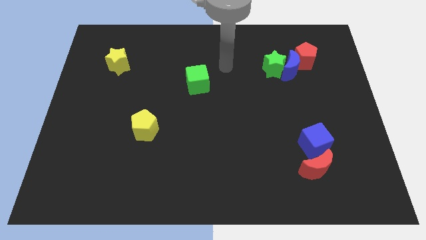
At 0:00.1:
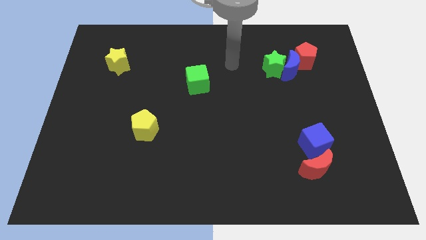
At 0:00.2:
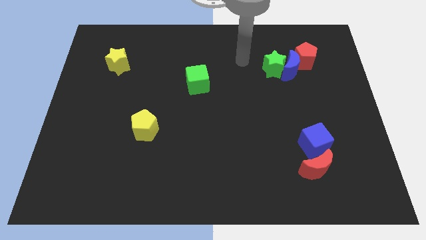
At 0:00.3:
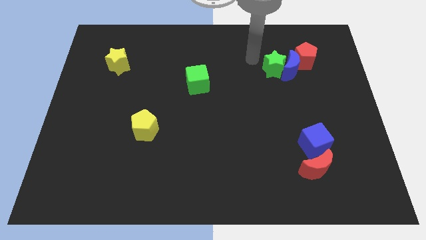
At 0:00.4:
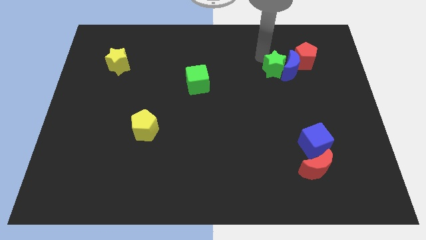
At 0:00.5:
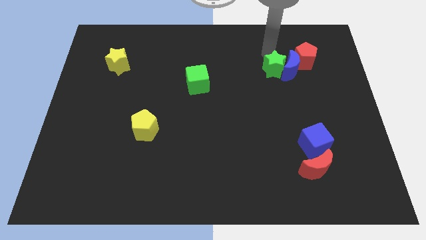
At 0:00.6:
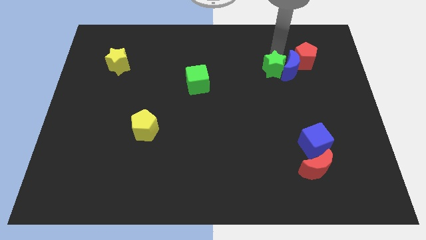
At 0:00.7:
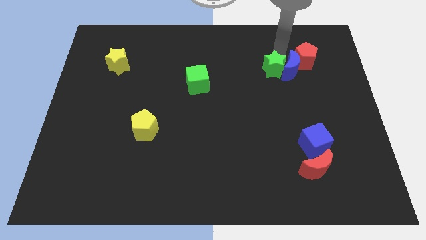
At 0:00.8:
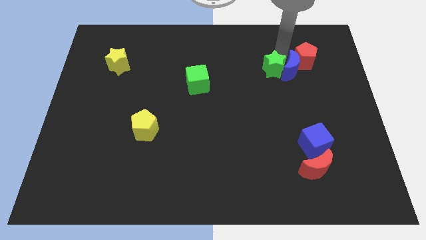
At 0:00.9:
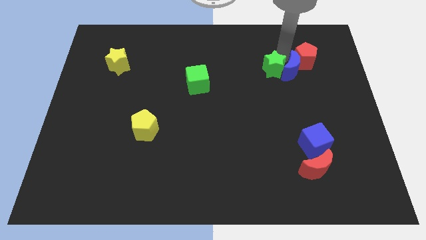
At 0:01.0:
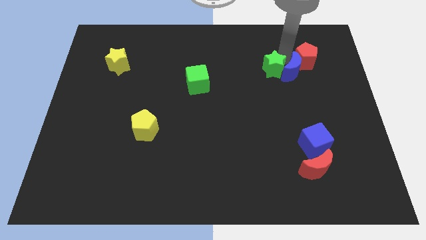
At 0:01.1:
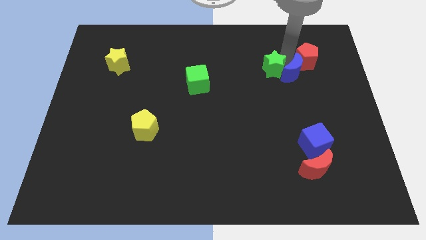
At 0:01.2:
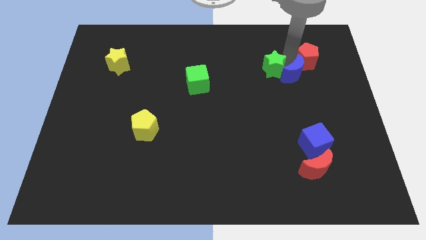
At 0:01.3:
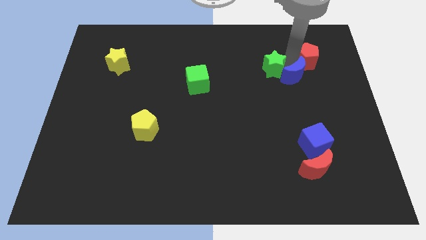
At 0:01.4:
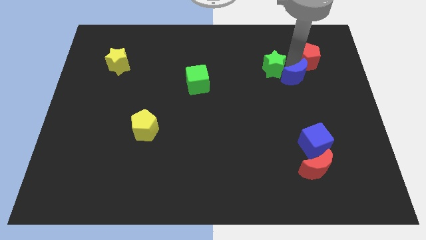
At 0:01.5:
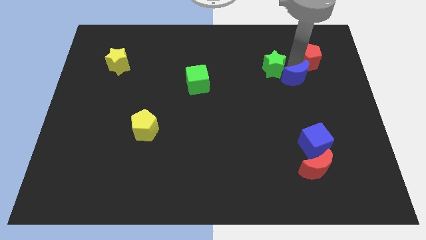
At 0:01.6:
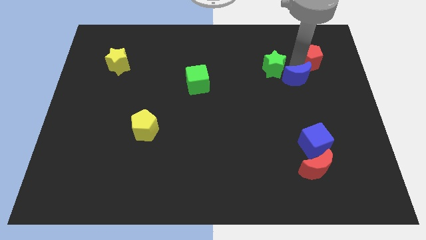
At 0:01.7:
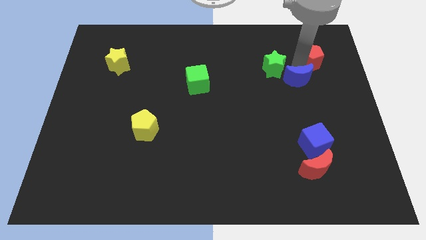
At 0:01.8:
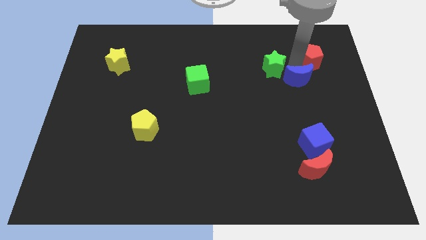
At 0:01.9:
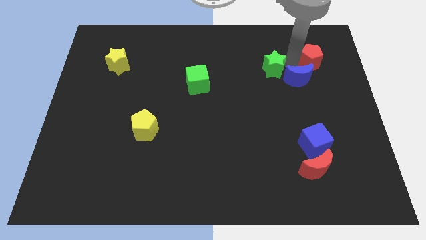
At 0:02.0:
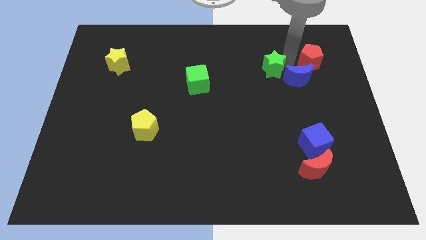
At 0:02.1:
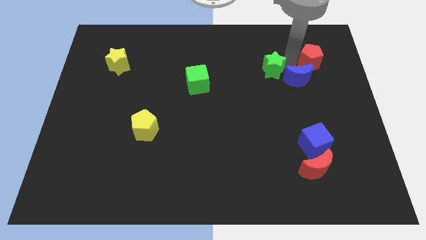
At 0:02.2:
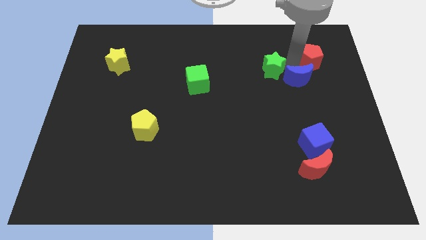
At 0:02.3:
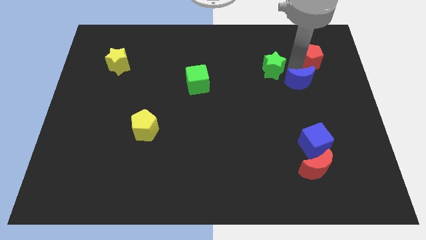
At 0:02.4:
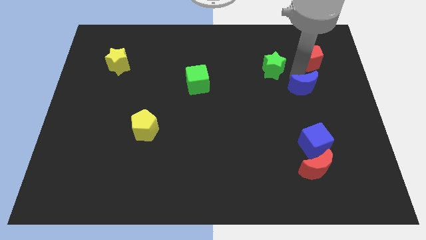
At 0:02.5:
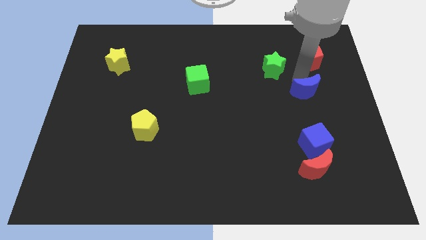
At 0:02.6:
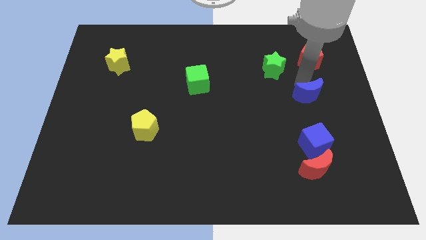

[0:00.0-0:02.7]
pull the blue moon apart from the green star and red pentagon

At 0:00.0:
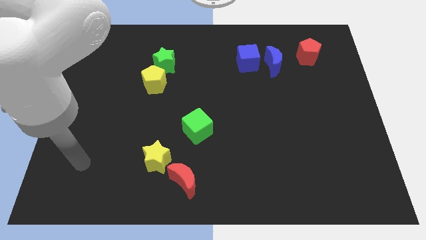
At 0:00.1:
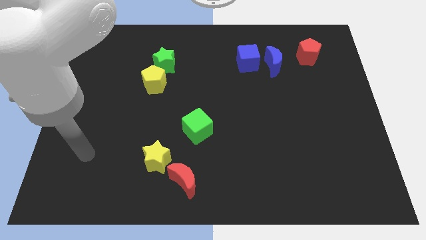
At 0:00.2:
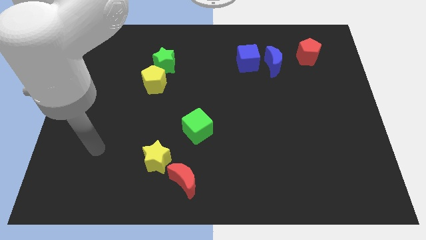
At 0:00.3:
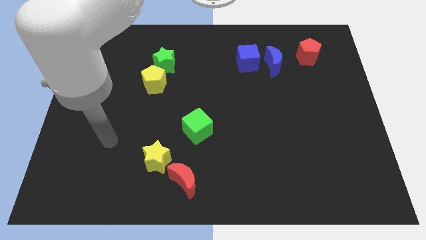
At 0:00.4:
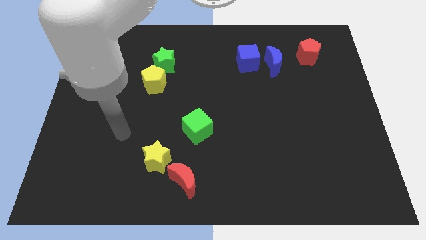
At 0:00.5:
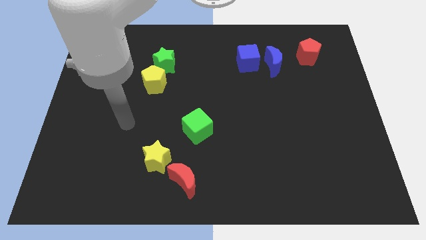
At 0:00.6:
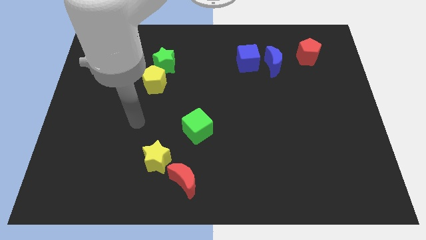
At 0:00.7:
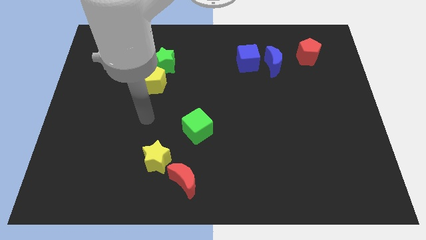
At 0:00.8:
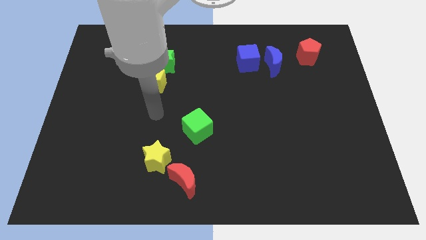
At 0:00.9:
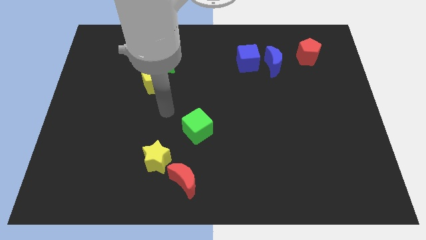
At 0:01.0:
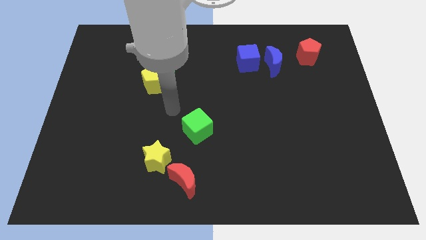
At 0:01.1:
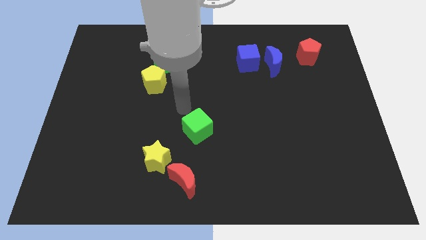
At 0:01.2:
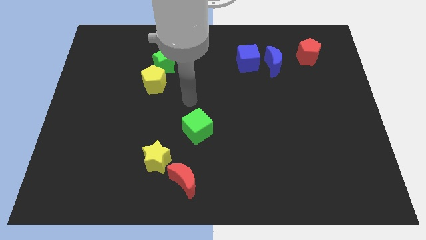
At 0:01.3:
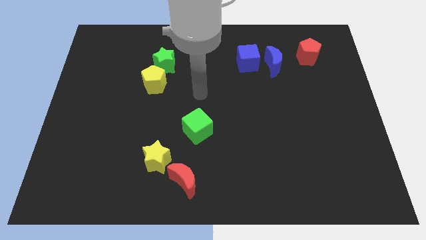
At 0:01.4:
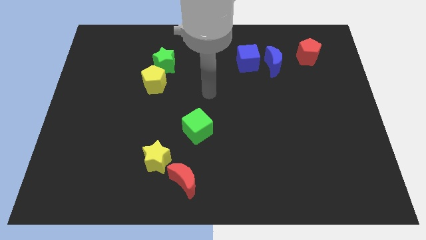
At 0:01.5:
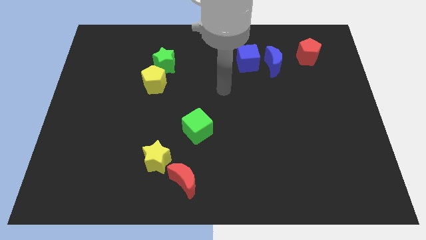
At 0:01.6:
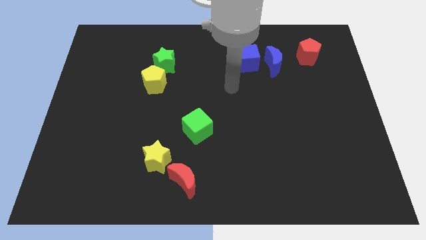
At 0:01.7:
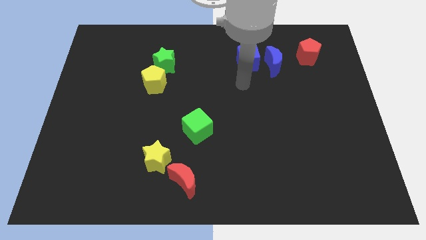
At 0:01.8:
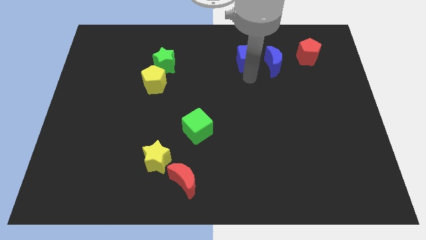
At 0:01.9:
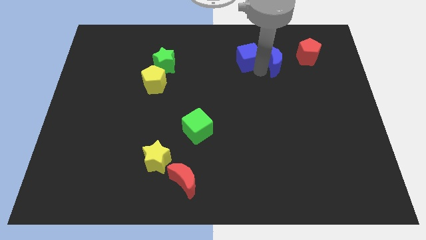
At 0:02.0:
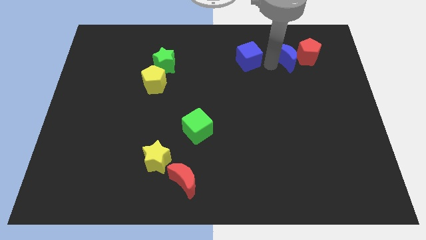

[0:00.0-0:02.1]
move the blue cube away from the blue moon

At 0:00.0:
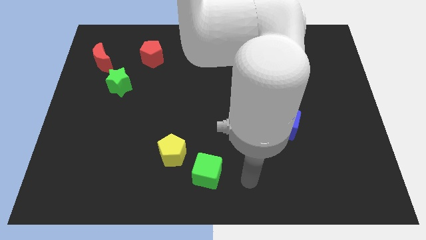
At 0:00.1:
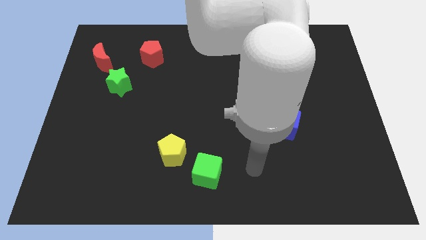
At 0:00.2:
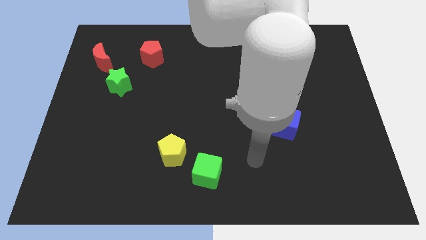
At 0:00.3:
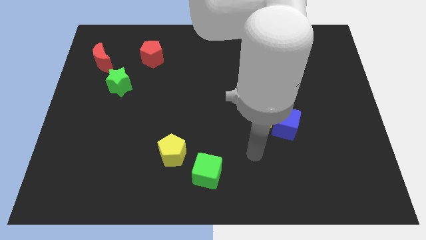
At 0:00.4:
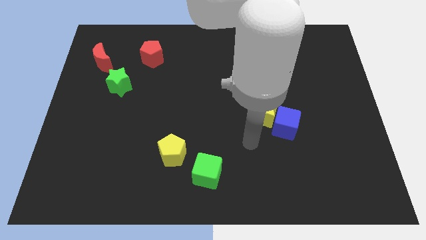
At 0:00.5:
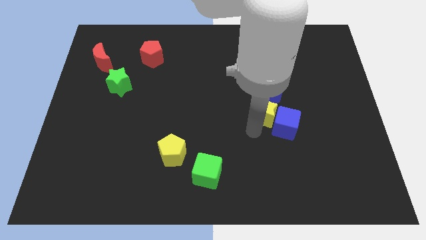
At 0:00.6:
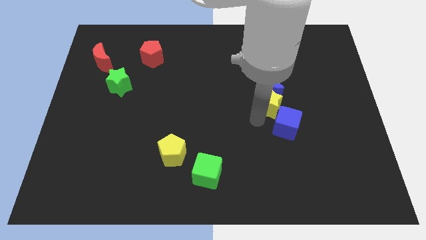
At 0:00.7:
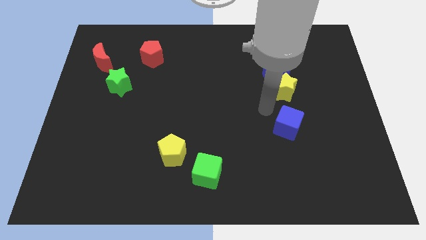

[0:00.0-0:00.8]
move the blue cube away from the yellow star

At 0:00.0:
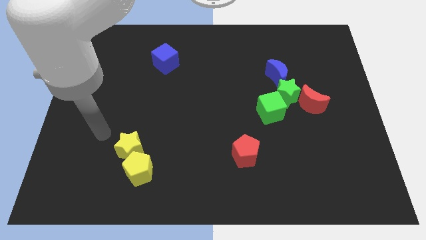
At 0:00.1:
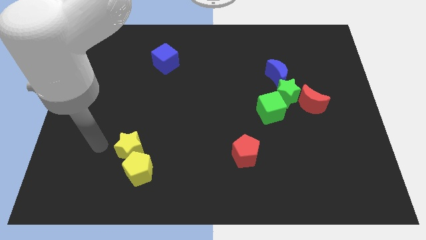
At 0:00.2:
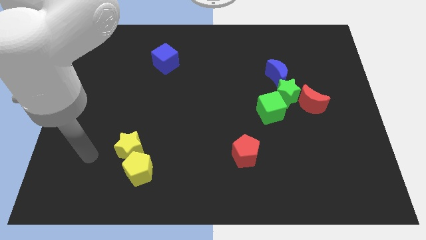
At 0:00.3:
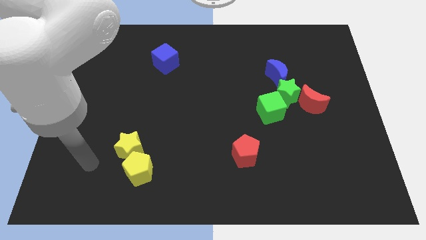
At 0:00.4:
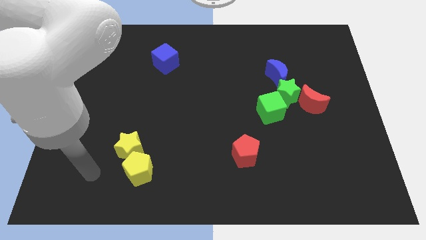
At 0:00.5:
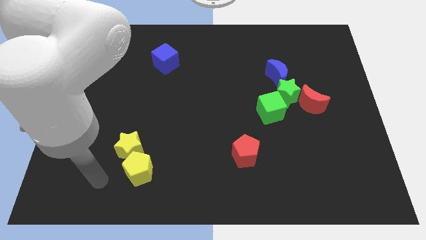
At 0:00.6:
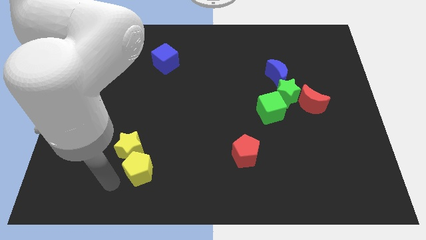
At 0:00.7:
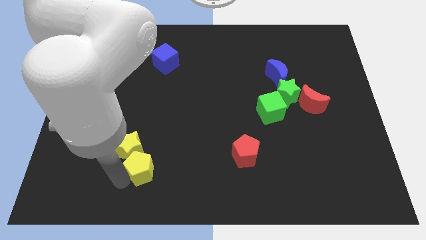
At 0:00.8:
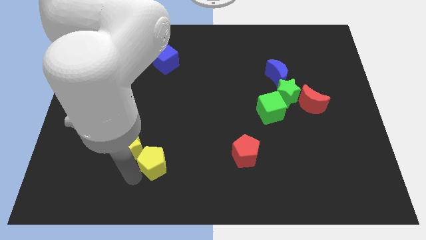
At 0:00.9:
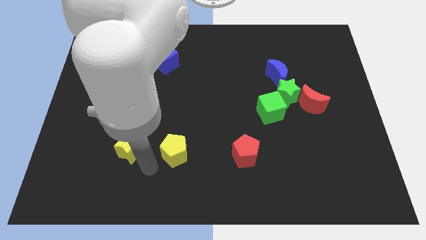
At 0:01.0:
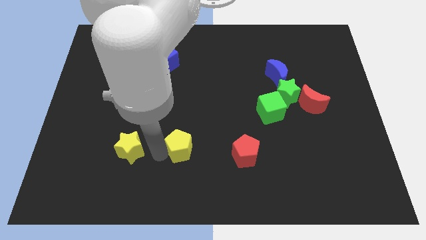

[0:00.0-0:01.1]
separate the yellow star from the yellow pentagon

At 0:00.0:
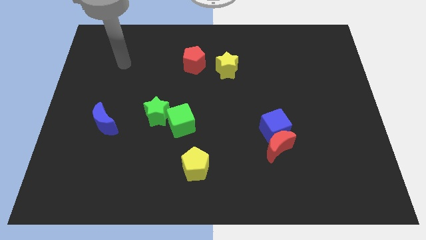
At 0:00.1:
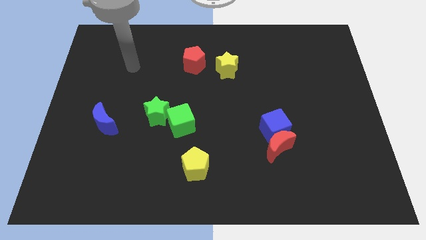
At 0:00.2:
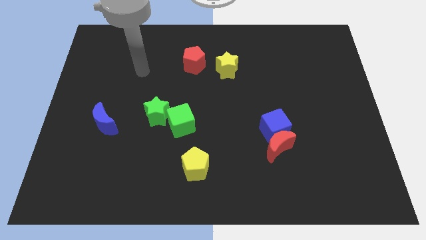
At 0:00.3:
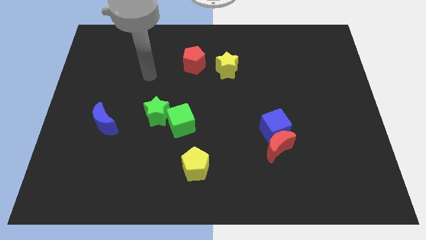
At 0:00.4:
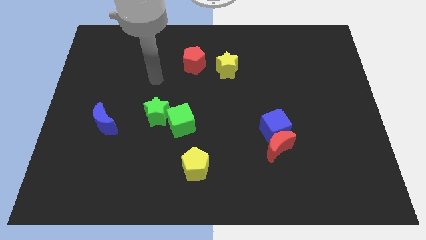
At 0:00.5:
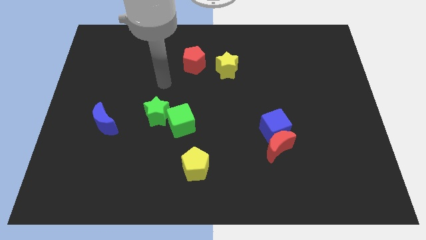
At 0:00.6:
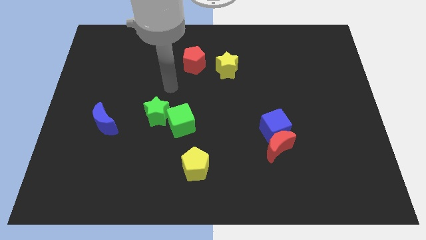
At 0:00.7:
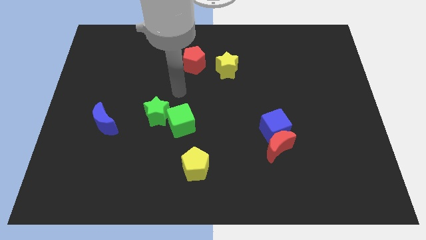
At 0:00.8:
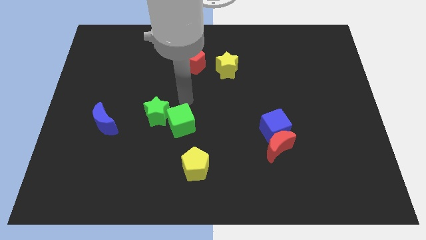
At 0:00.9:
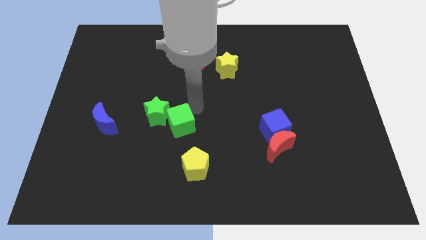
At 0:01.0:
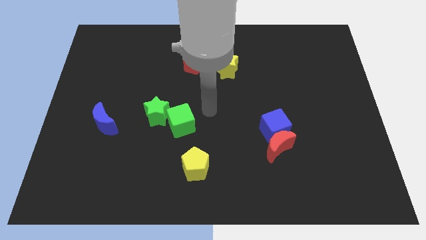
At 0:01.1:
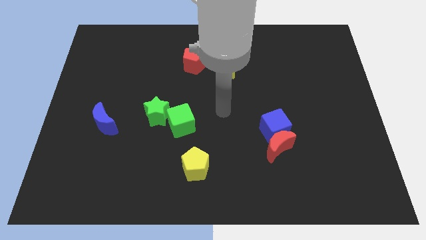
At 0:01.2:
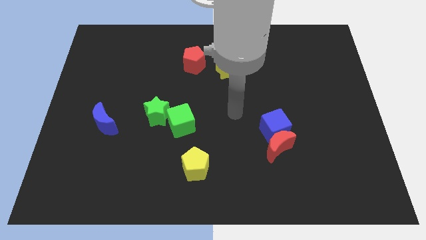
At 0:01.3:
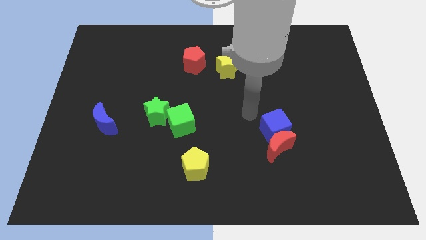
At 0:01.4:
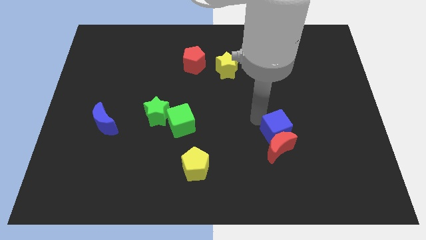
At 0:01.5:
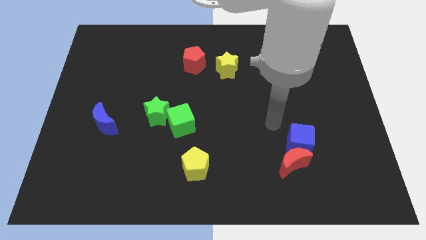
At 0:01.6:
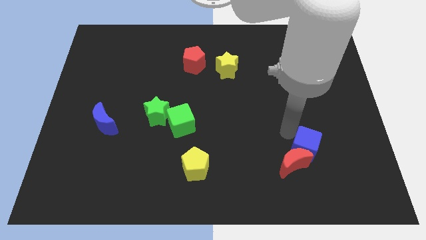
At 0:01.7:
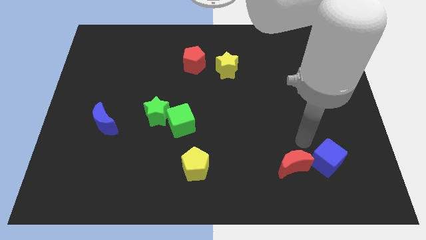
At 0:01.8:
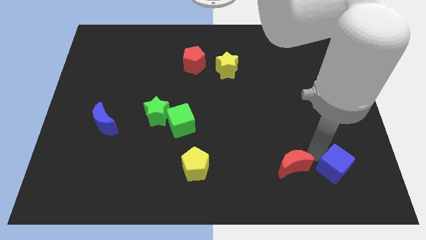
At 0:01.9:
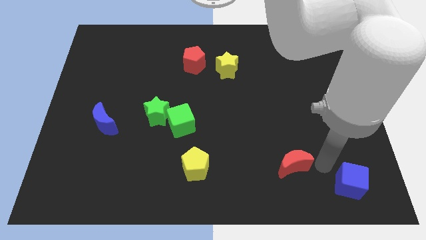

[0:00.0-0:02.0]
separate the red moon from the blue cube

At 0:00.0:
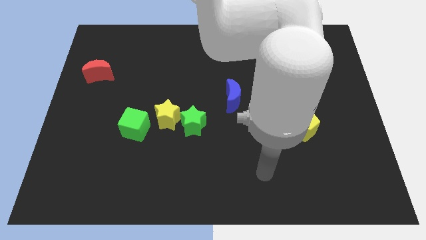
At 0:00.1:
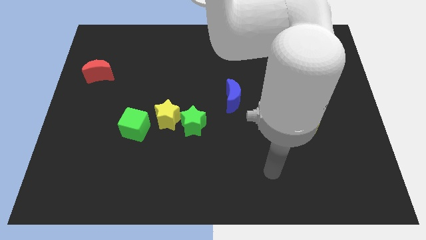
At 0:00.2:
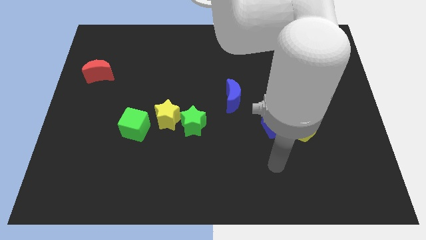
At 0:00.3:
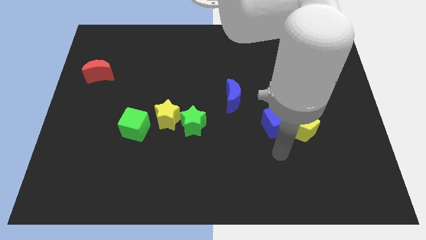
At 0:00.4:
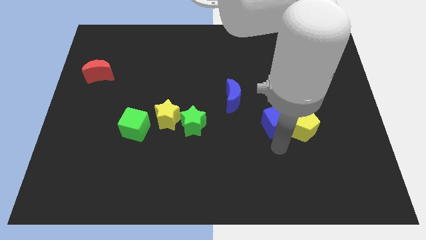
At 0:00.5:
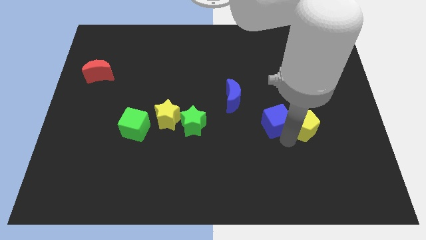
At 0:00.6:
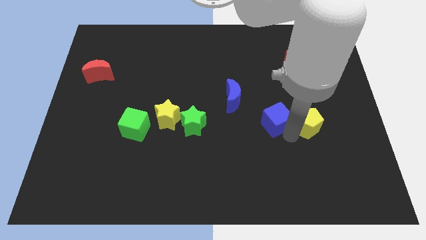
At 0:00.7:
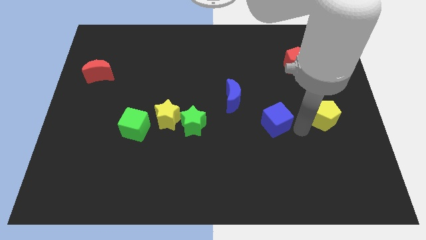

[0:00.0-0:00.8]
separate the blue cube from the yellow pentagon
